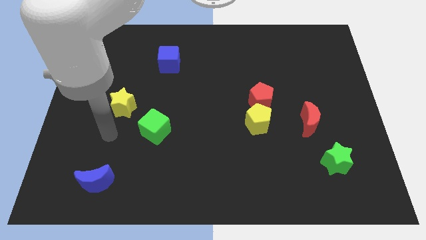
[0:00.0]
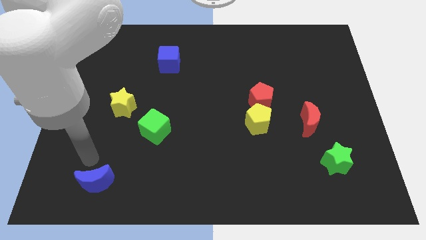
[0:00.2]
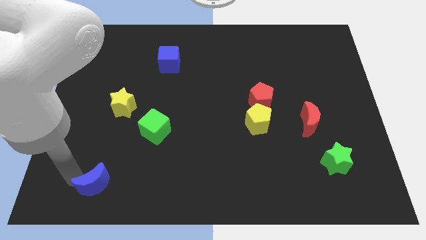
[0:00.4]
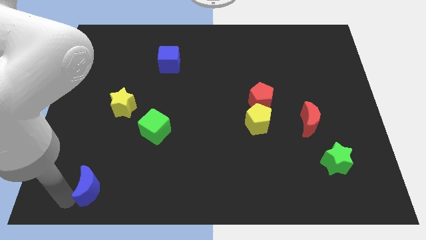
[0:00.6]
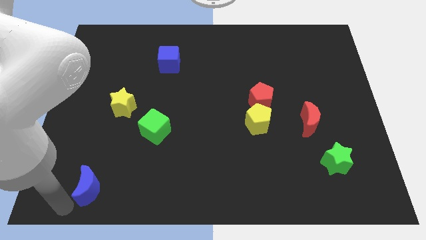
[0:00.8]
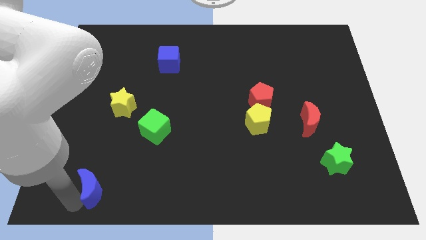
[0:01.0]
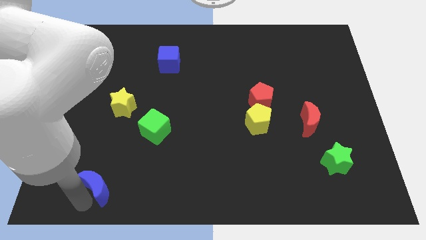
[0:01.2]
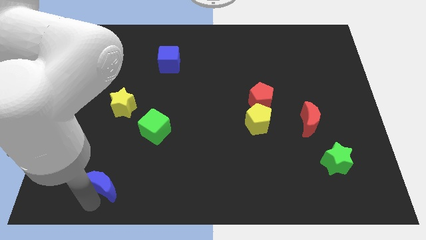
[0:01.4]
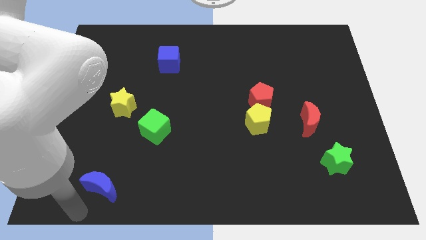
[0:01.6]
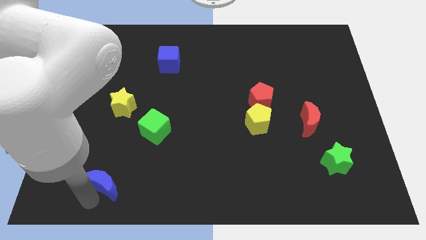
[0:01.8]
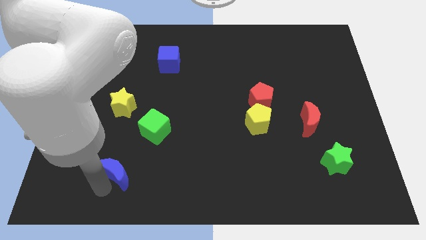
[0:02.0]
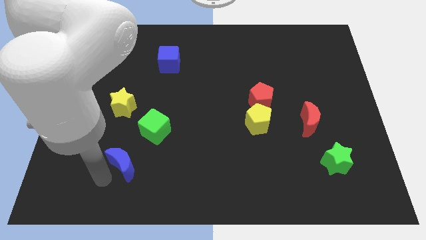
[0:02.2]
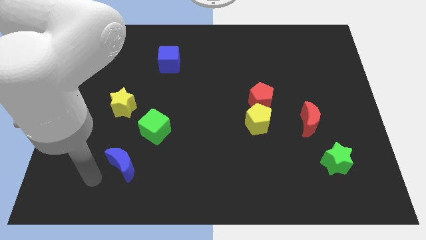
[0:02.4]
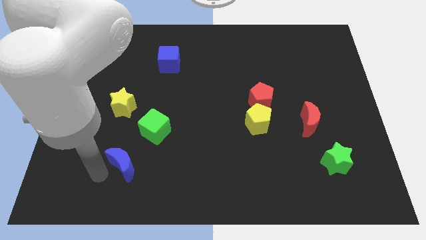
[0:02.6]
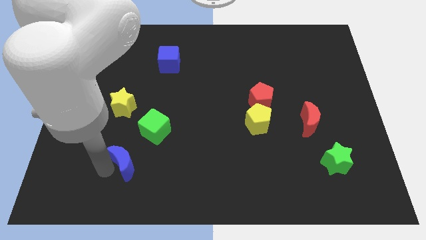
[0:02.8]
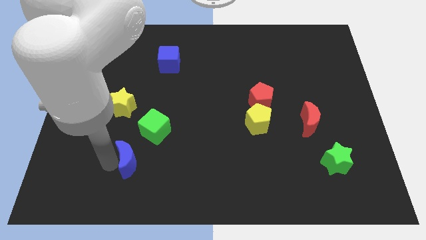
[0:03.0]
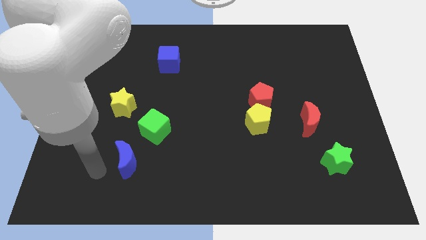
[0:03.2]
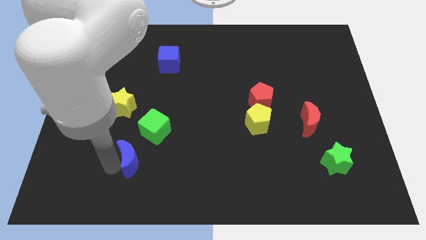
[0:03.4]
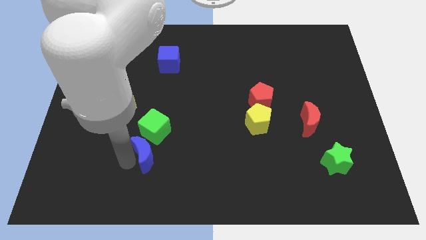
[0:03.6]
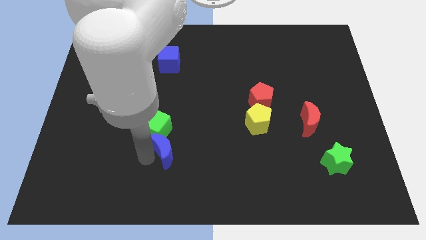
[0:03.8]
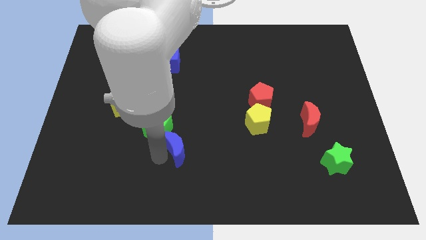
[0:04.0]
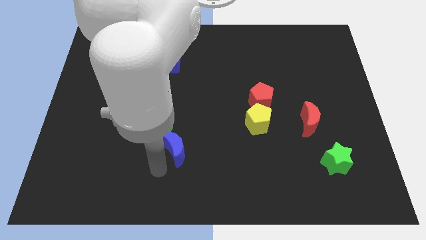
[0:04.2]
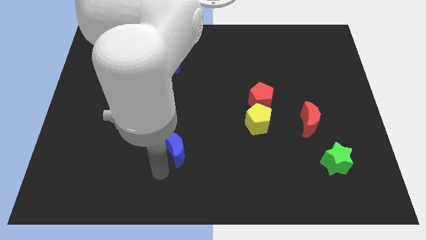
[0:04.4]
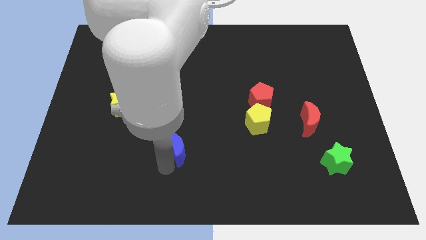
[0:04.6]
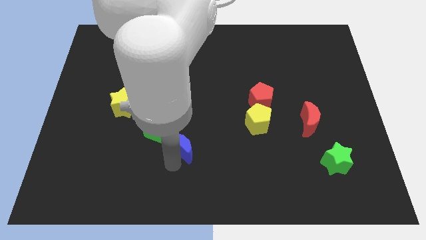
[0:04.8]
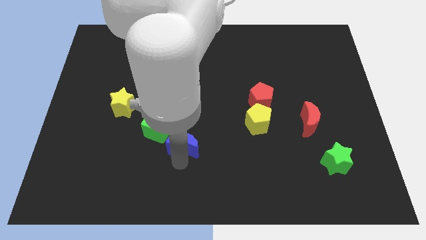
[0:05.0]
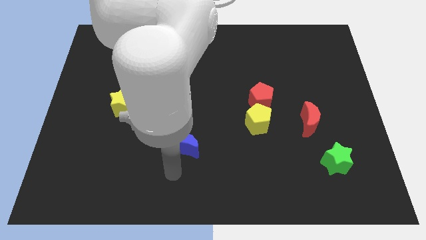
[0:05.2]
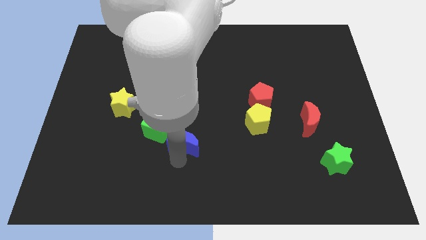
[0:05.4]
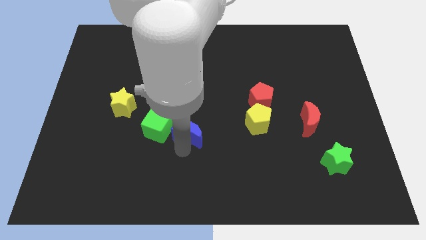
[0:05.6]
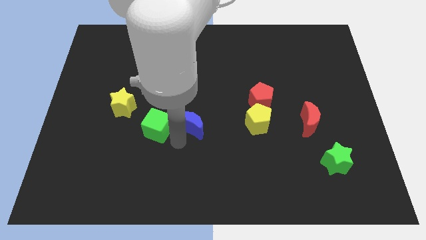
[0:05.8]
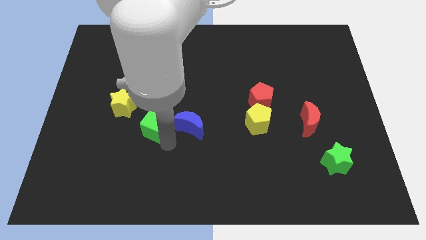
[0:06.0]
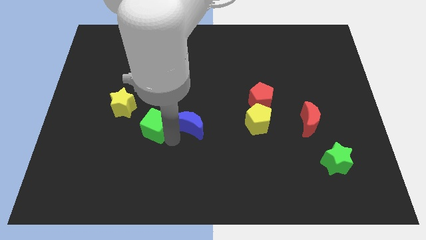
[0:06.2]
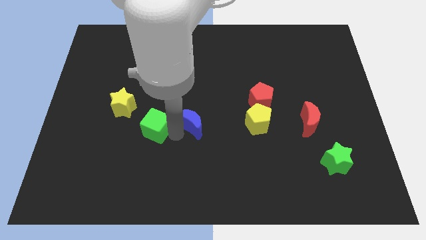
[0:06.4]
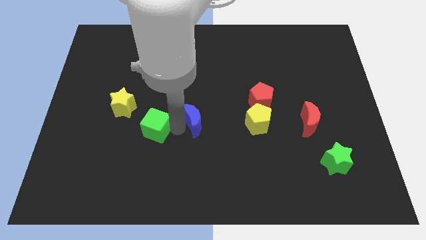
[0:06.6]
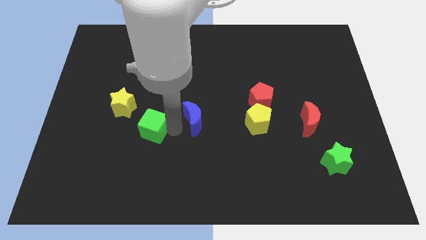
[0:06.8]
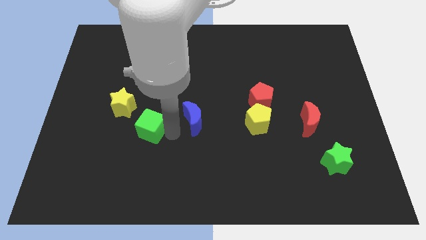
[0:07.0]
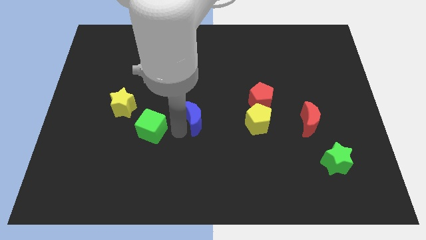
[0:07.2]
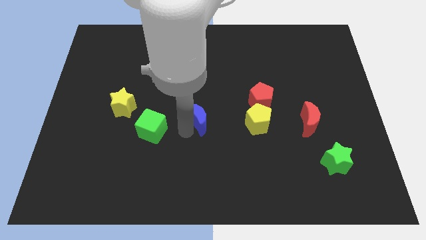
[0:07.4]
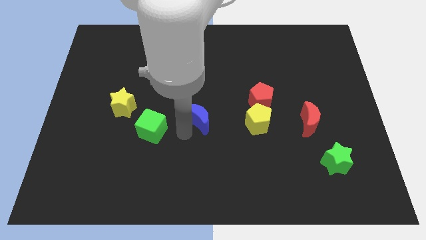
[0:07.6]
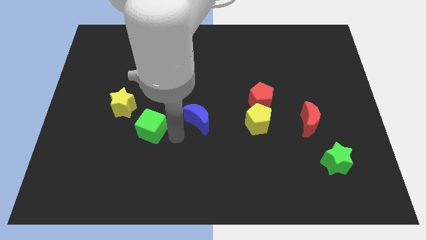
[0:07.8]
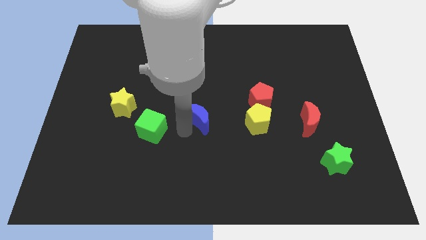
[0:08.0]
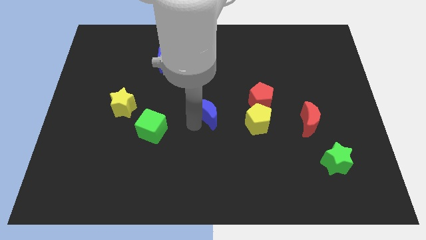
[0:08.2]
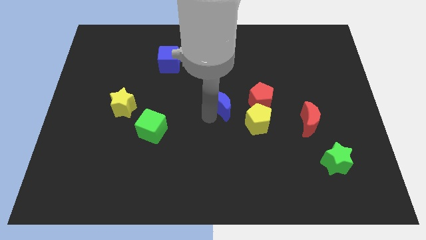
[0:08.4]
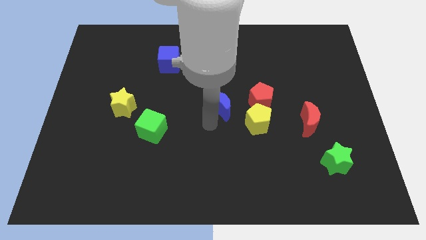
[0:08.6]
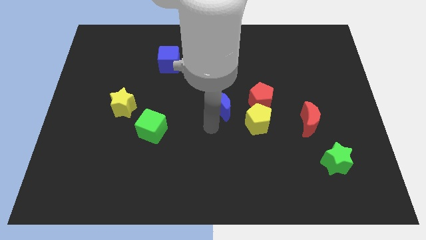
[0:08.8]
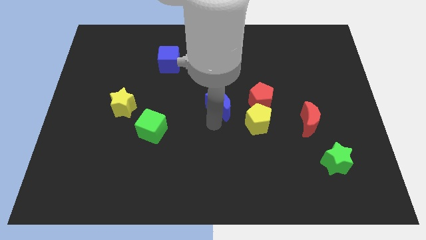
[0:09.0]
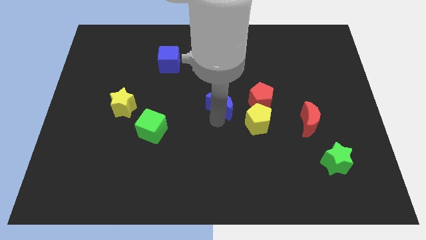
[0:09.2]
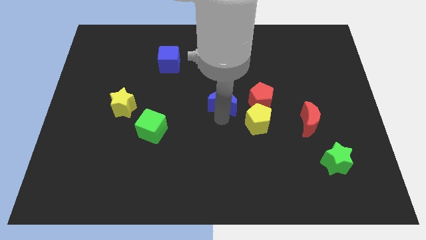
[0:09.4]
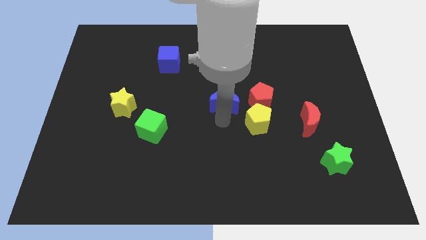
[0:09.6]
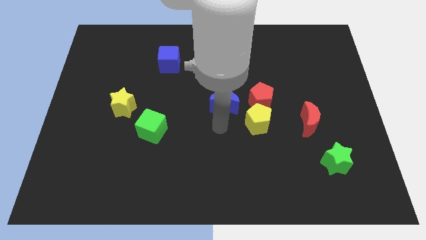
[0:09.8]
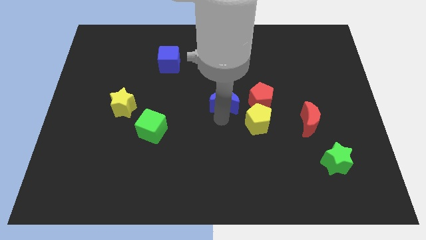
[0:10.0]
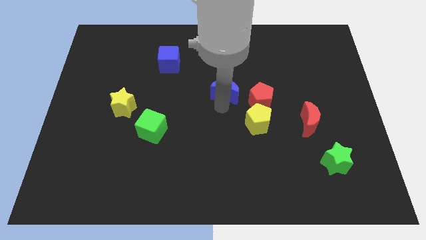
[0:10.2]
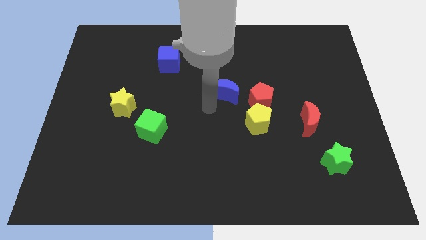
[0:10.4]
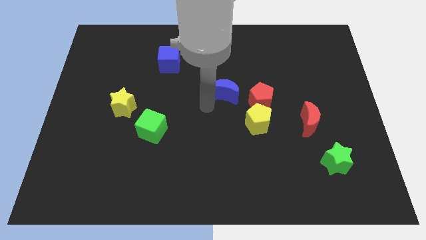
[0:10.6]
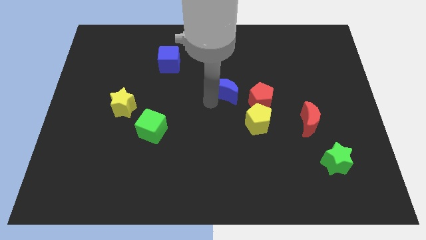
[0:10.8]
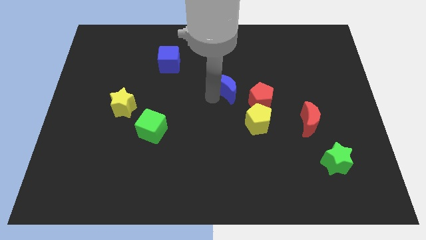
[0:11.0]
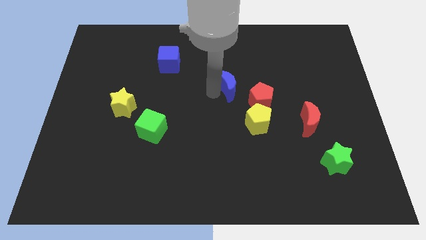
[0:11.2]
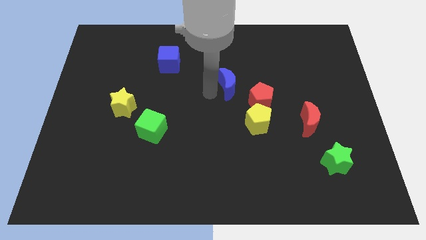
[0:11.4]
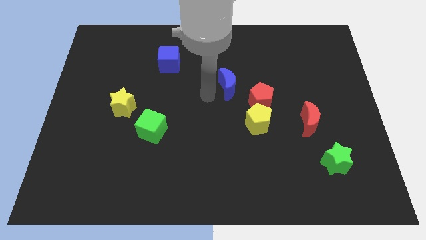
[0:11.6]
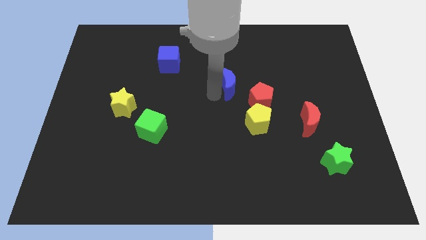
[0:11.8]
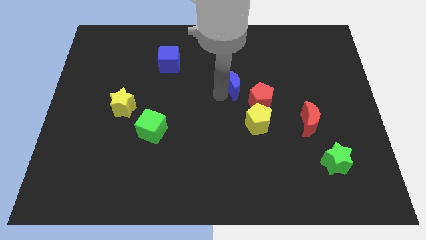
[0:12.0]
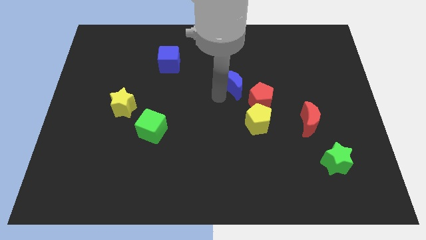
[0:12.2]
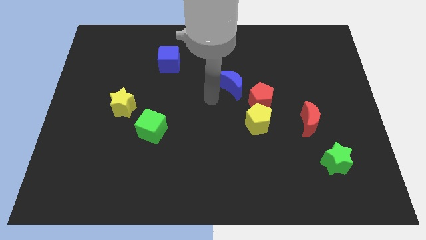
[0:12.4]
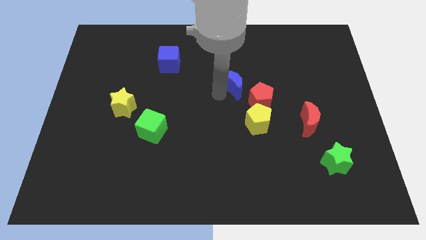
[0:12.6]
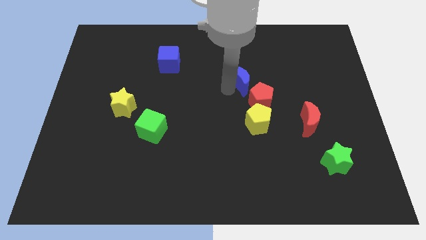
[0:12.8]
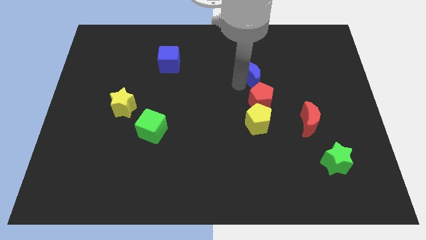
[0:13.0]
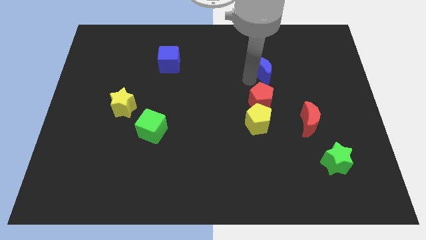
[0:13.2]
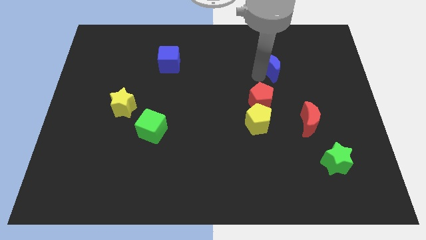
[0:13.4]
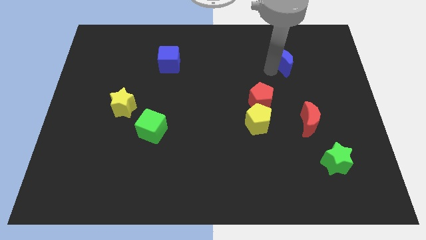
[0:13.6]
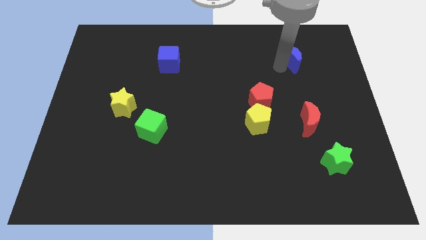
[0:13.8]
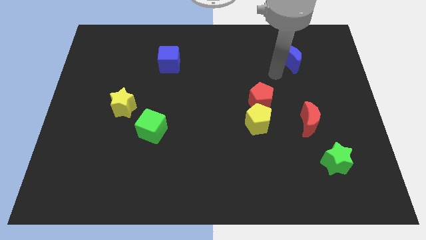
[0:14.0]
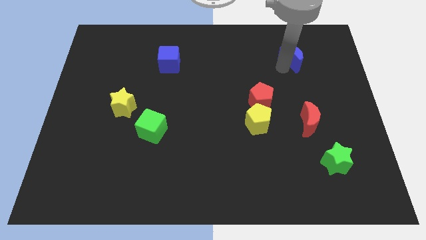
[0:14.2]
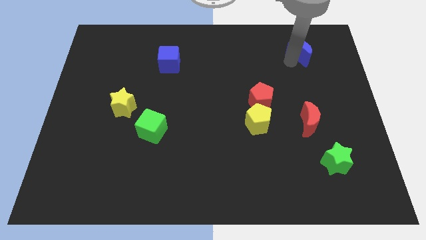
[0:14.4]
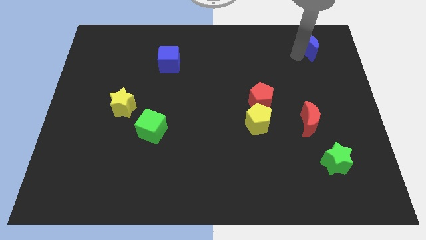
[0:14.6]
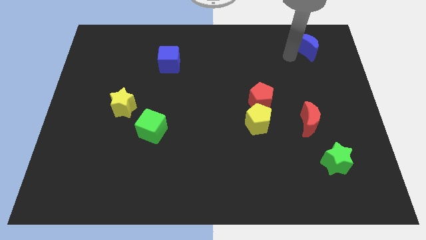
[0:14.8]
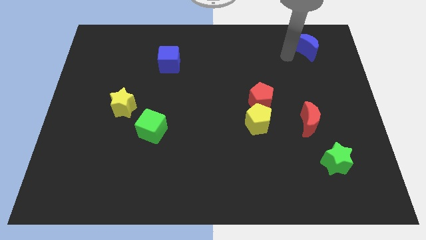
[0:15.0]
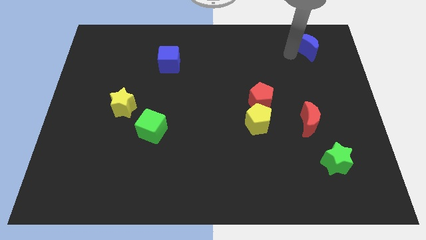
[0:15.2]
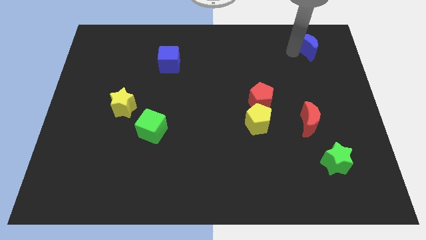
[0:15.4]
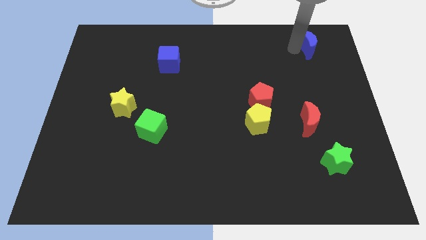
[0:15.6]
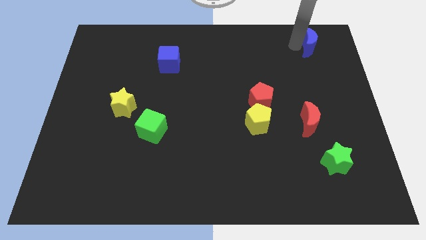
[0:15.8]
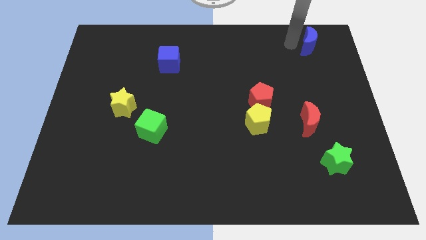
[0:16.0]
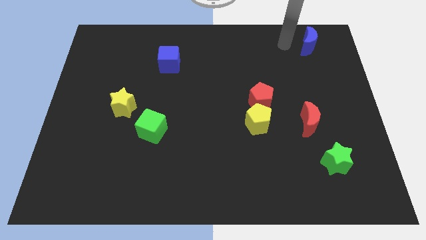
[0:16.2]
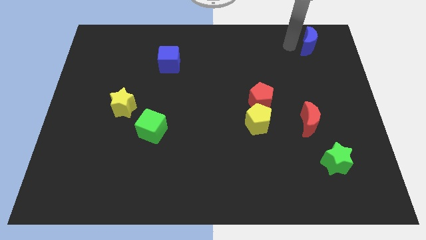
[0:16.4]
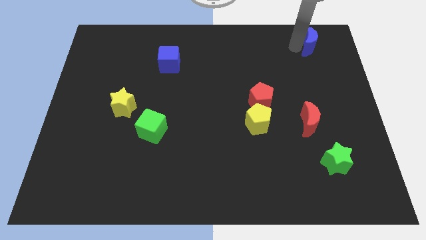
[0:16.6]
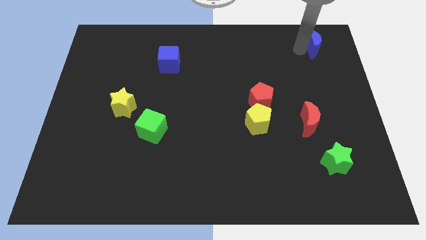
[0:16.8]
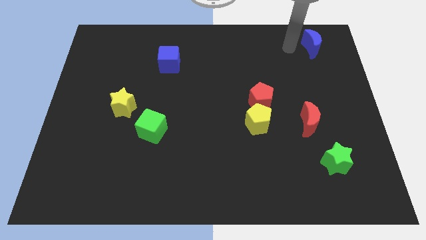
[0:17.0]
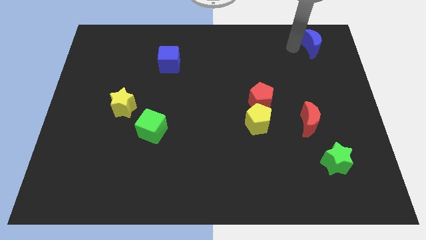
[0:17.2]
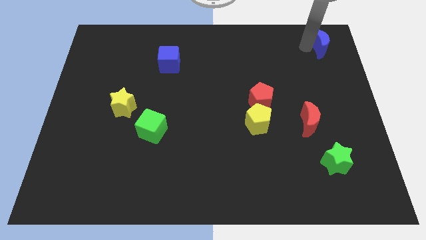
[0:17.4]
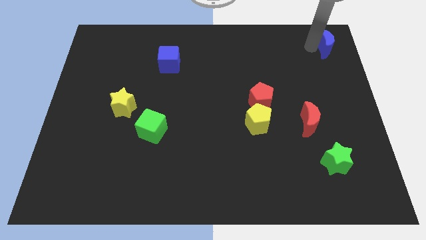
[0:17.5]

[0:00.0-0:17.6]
push the blue moon to the top right of the board
